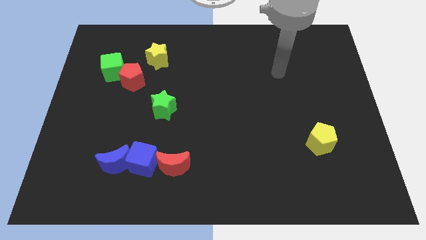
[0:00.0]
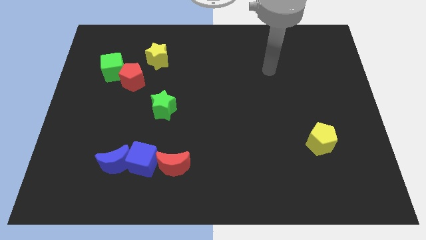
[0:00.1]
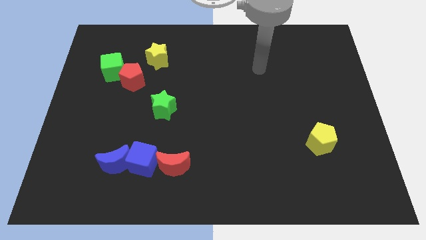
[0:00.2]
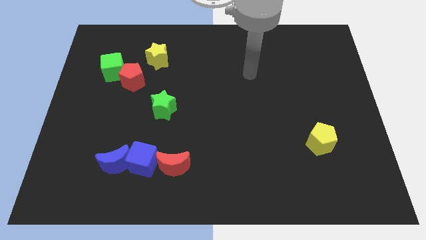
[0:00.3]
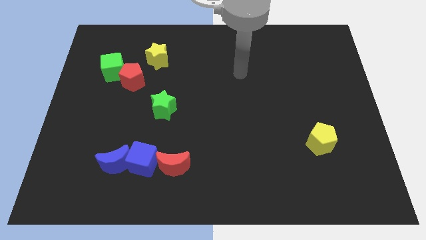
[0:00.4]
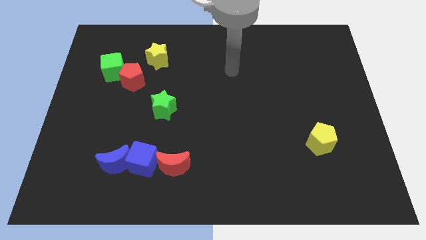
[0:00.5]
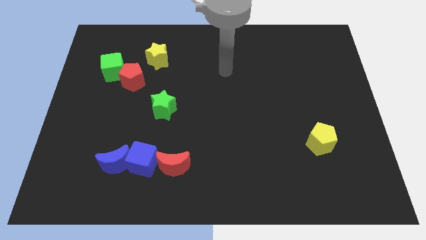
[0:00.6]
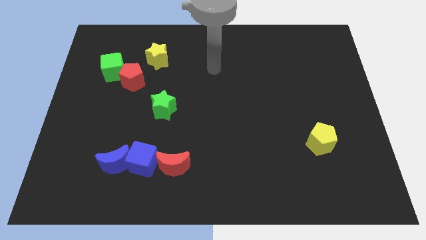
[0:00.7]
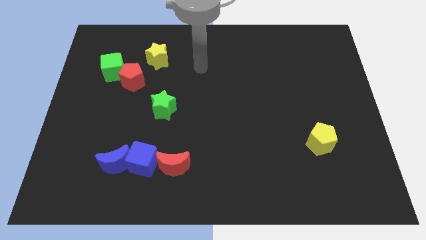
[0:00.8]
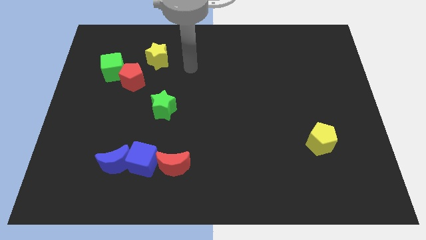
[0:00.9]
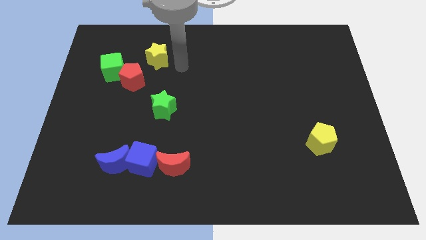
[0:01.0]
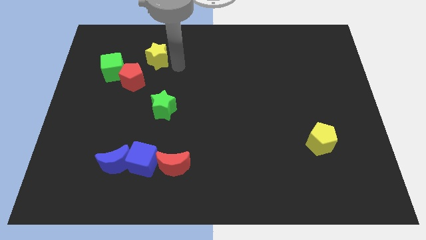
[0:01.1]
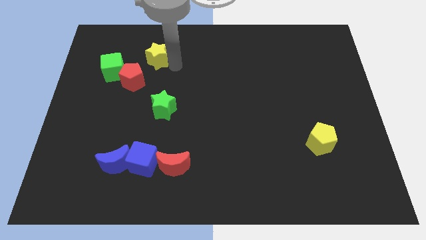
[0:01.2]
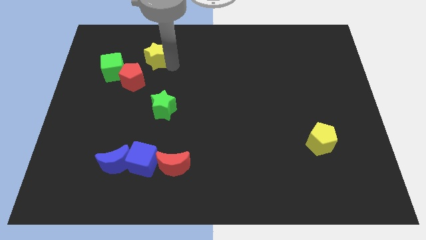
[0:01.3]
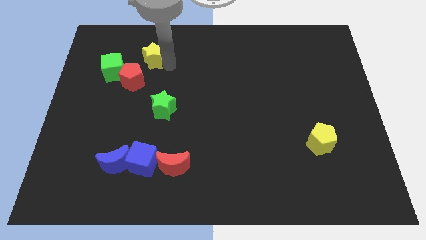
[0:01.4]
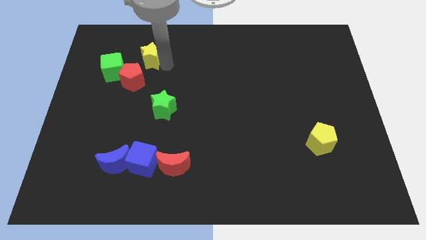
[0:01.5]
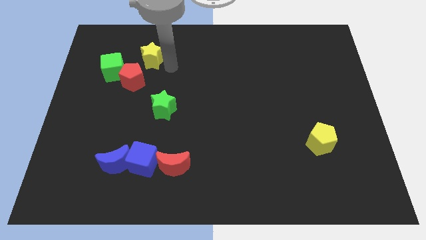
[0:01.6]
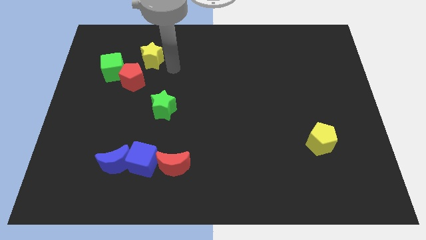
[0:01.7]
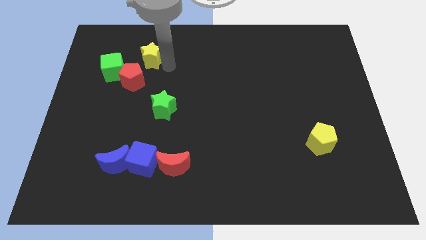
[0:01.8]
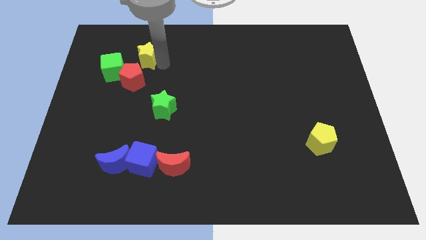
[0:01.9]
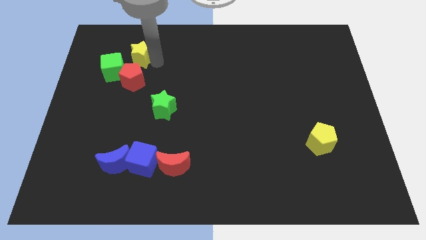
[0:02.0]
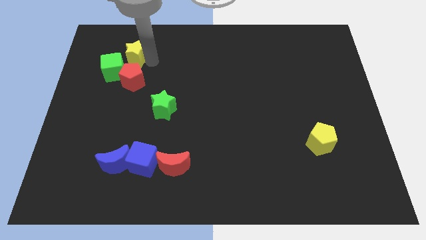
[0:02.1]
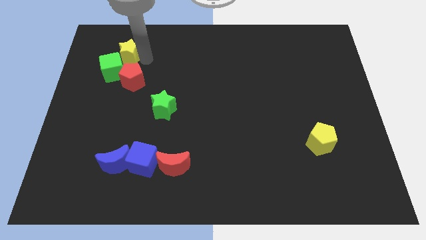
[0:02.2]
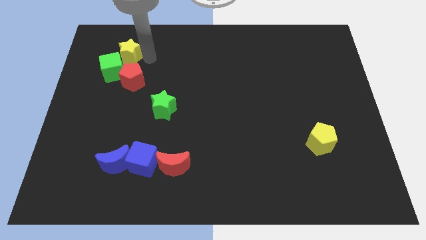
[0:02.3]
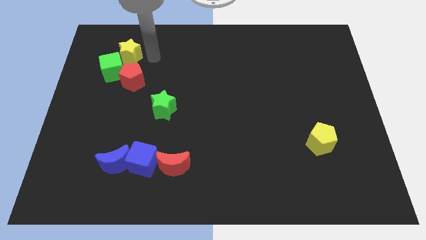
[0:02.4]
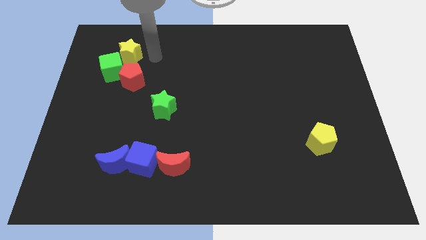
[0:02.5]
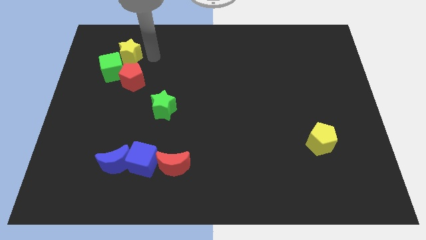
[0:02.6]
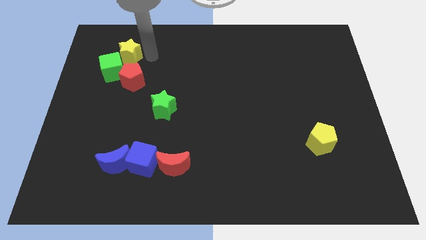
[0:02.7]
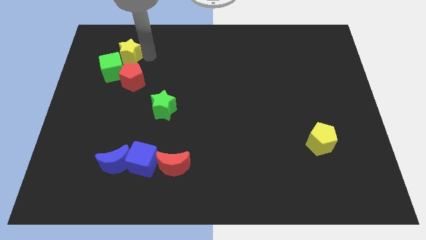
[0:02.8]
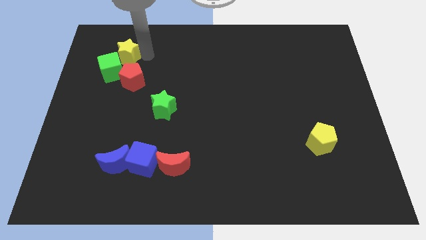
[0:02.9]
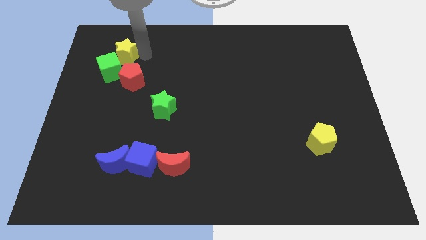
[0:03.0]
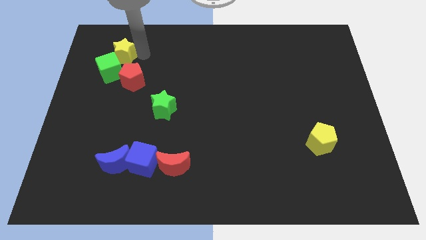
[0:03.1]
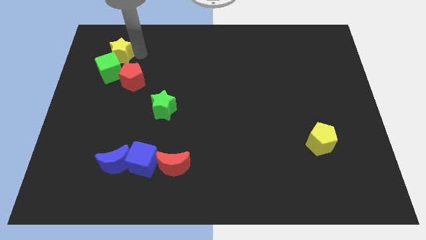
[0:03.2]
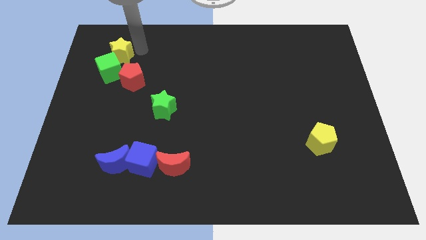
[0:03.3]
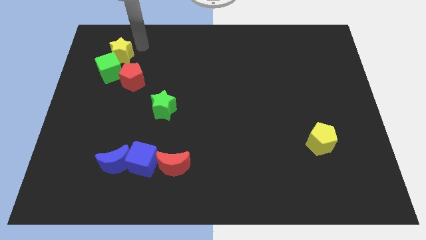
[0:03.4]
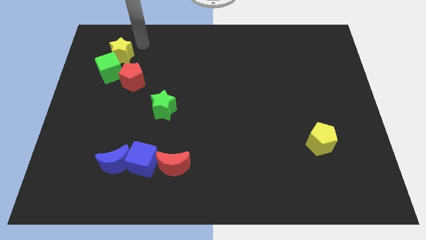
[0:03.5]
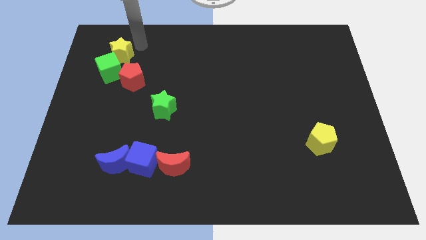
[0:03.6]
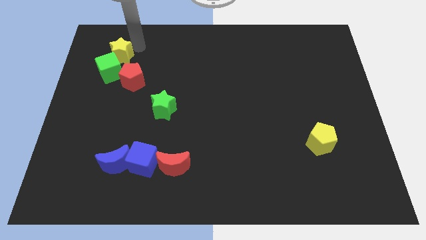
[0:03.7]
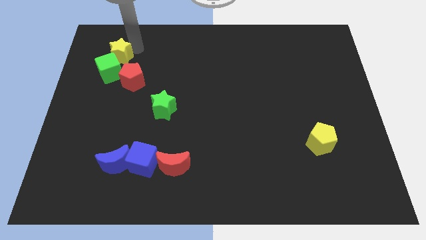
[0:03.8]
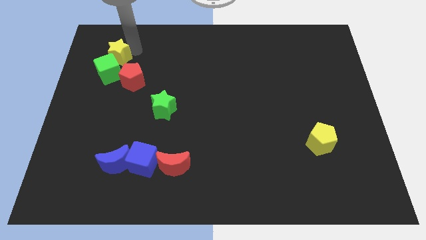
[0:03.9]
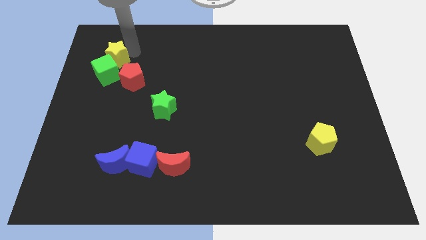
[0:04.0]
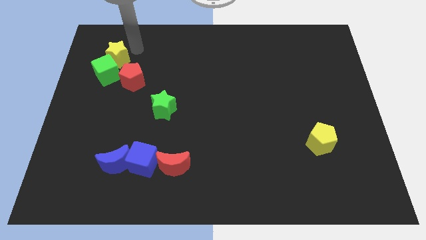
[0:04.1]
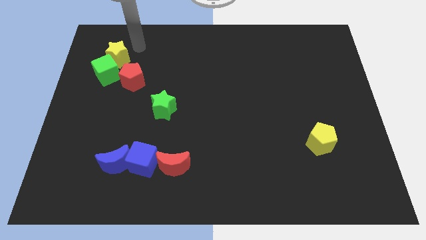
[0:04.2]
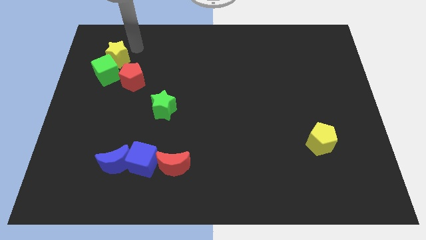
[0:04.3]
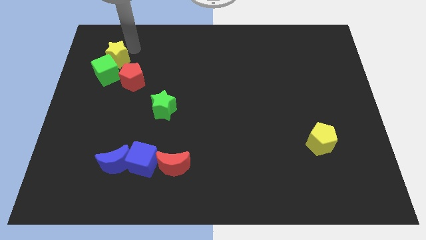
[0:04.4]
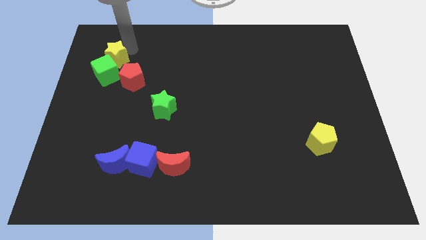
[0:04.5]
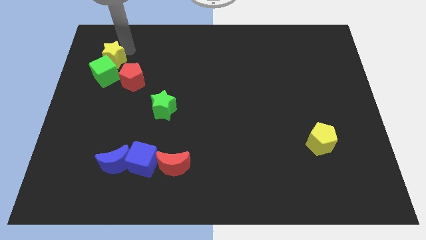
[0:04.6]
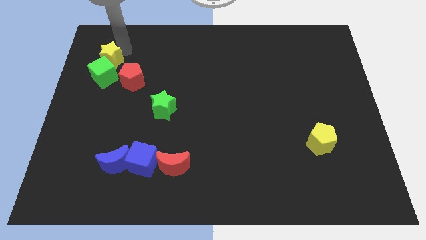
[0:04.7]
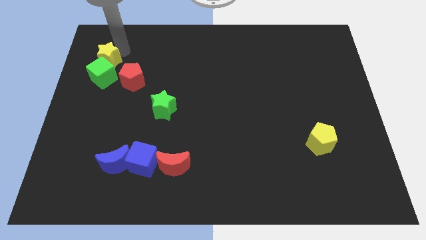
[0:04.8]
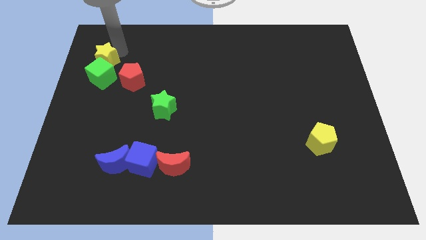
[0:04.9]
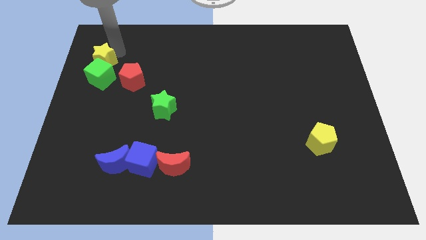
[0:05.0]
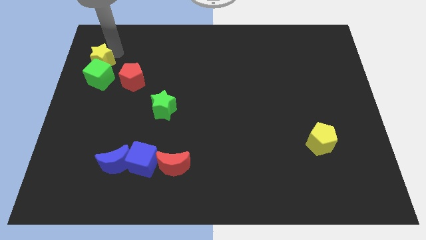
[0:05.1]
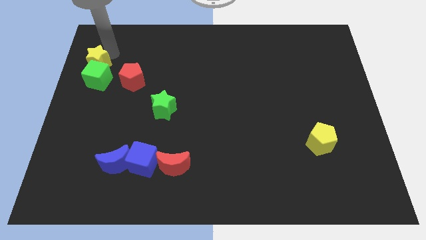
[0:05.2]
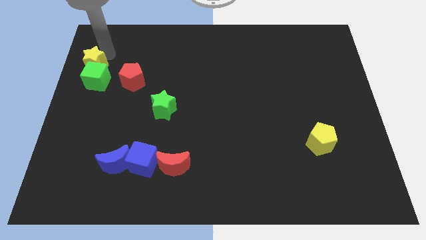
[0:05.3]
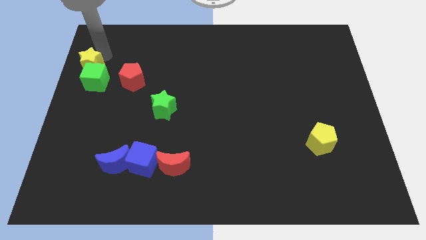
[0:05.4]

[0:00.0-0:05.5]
push the yellow star to the left side of the board

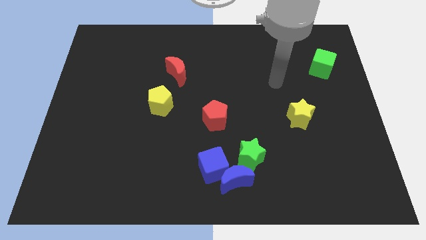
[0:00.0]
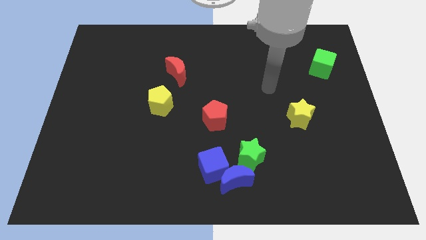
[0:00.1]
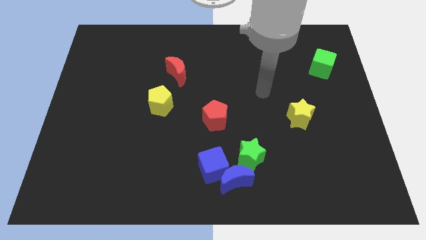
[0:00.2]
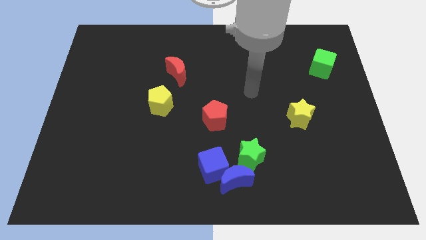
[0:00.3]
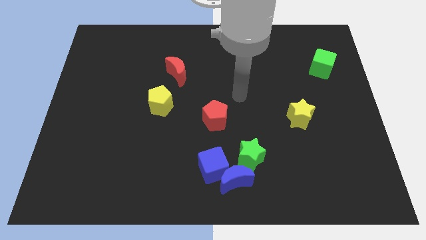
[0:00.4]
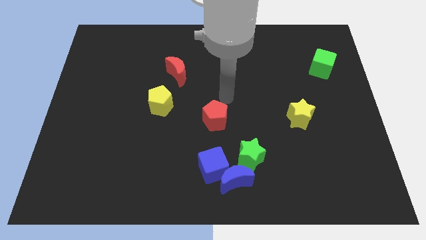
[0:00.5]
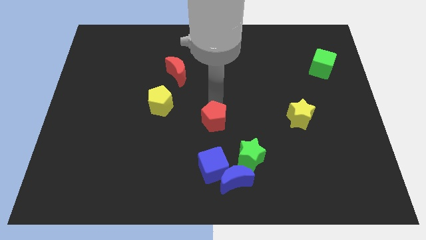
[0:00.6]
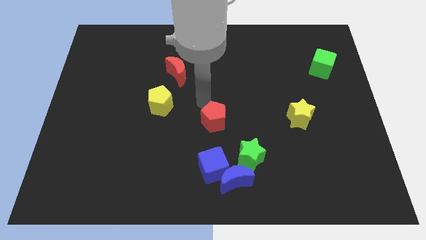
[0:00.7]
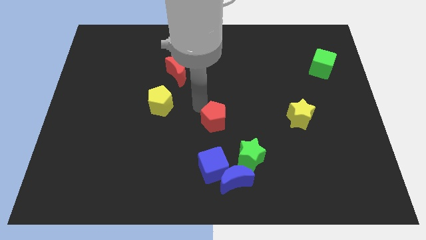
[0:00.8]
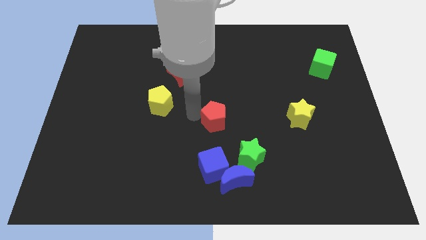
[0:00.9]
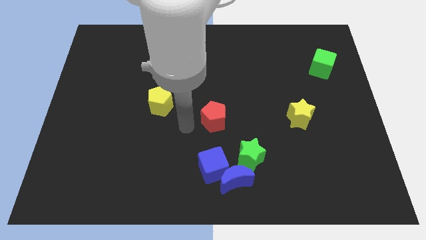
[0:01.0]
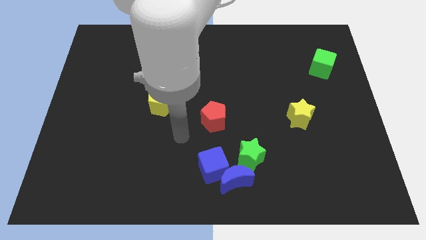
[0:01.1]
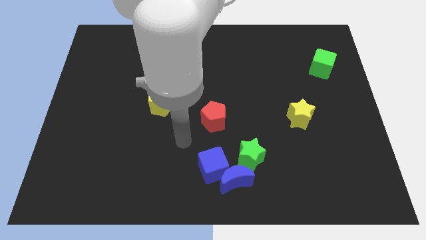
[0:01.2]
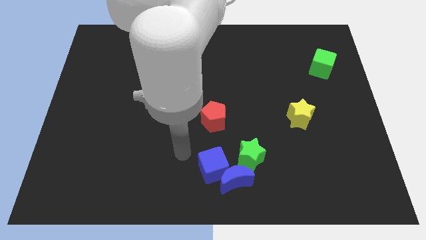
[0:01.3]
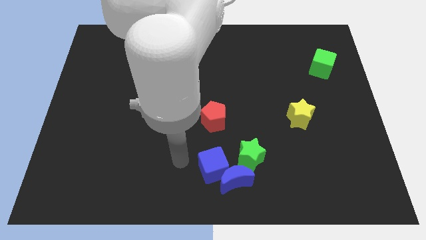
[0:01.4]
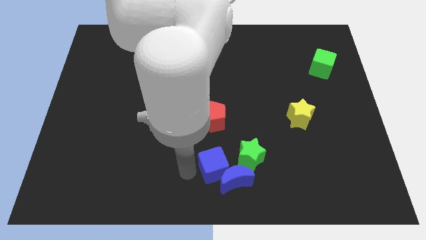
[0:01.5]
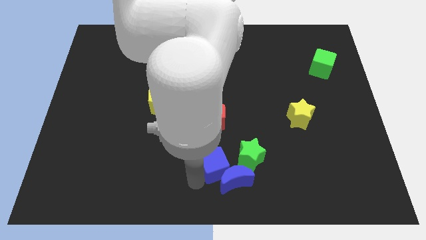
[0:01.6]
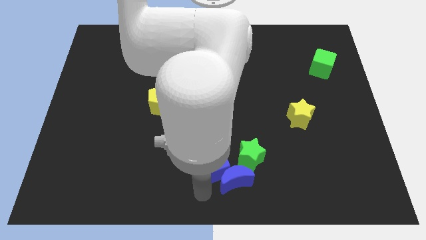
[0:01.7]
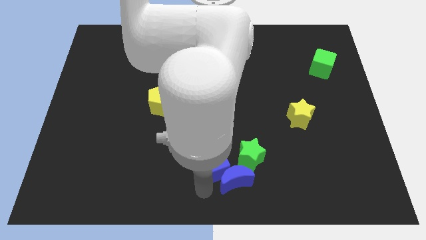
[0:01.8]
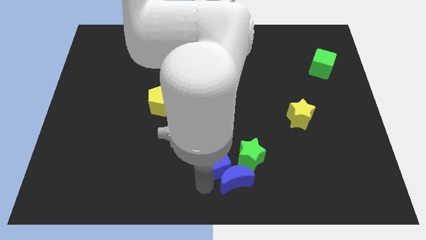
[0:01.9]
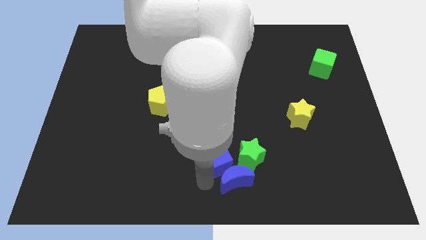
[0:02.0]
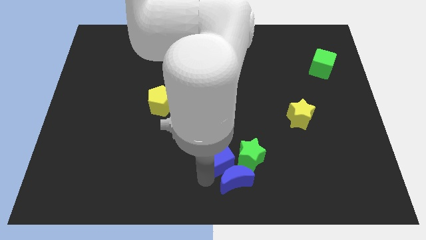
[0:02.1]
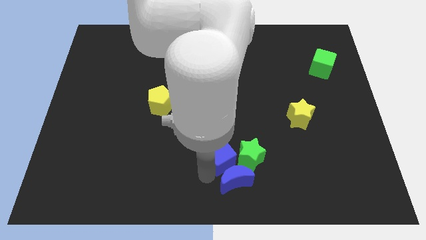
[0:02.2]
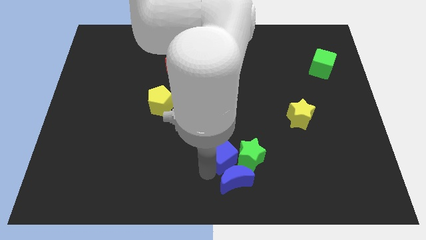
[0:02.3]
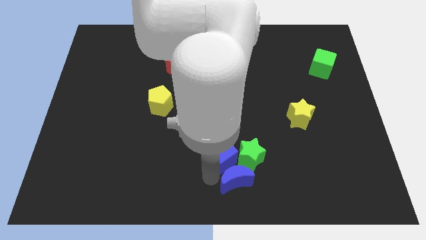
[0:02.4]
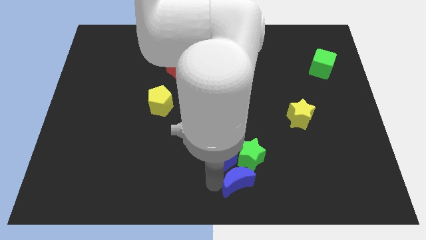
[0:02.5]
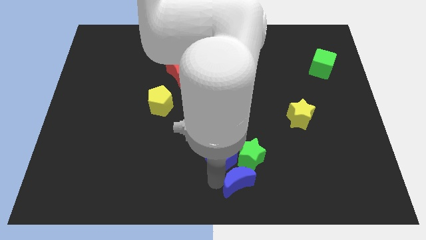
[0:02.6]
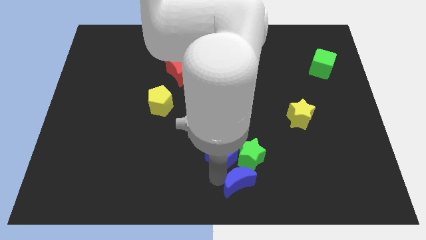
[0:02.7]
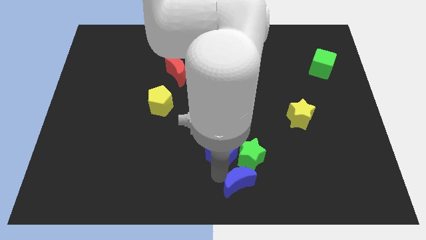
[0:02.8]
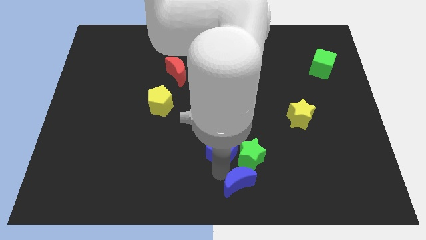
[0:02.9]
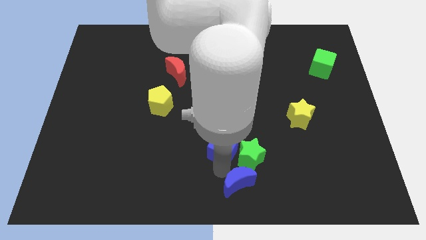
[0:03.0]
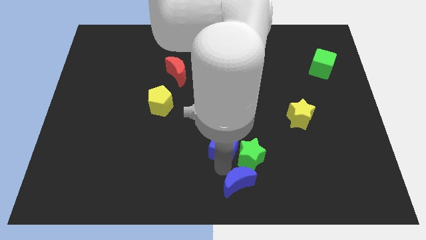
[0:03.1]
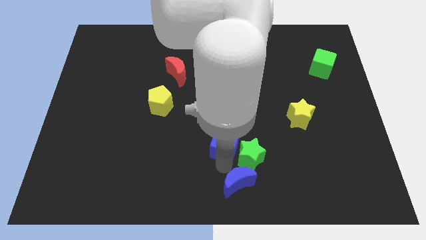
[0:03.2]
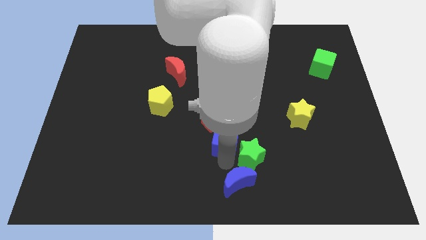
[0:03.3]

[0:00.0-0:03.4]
push the blue cube to the center
